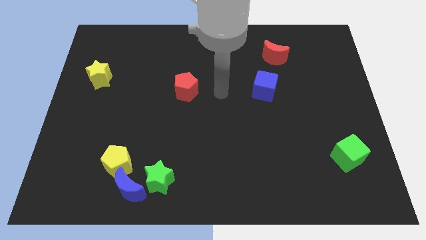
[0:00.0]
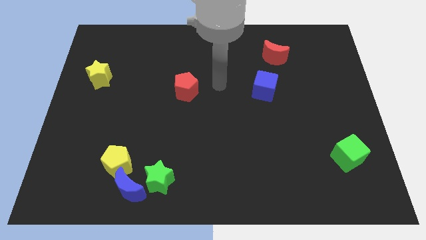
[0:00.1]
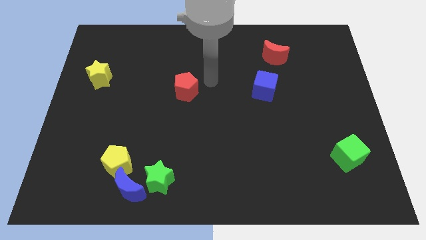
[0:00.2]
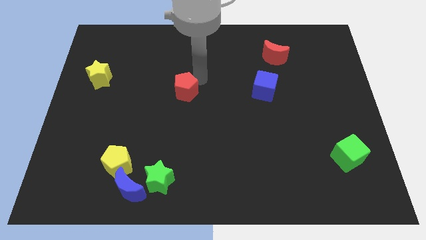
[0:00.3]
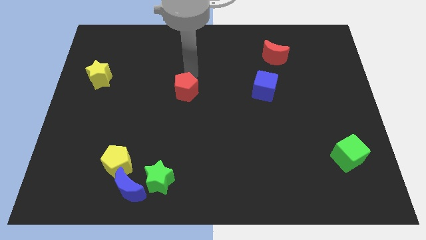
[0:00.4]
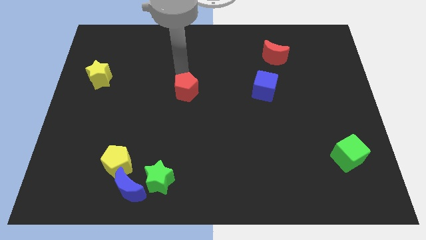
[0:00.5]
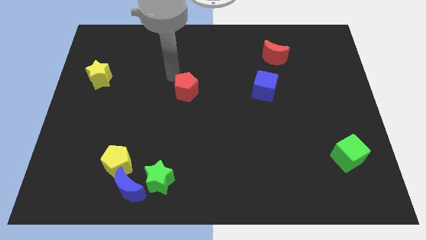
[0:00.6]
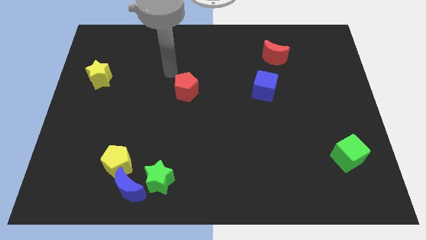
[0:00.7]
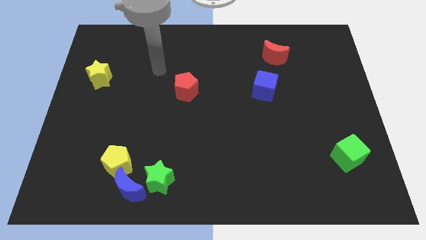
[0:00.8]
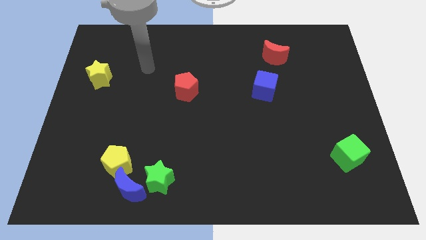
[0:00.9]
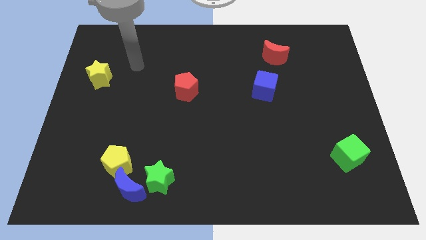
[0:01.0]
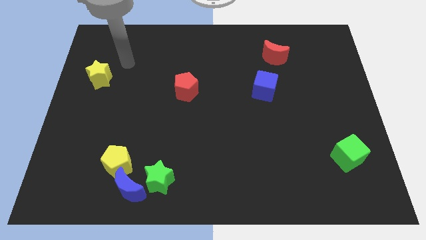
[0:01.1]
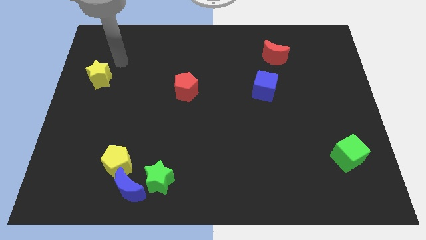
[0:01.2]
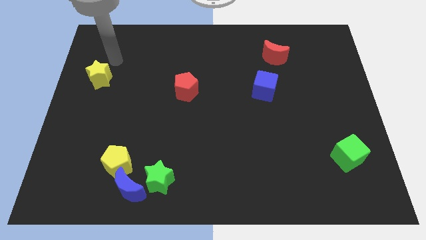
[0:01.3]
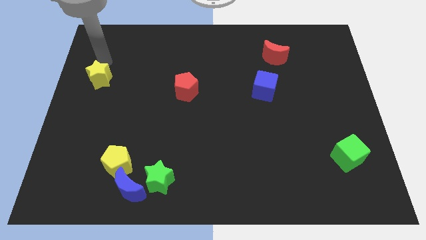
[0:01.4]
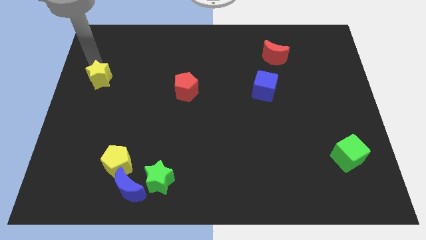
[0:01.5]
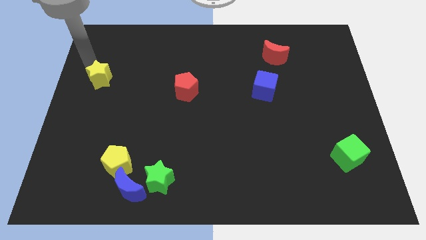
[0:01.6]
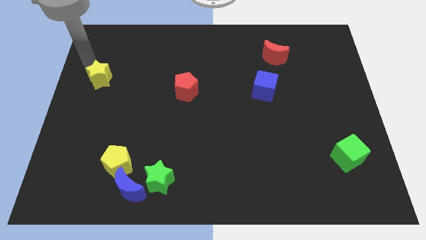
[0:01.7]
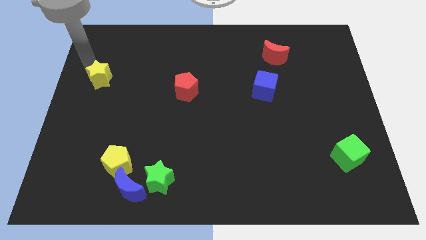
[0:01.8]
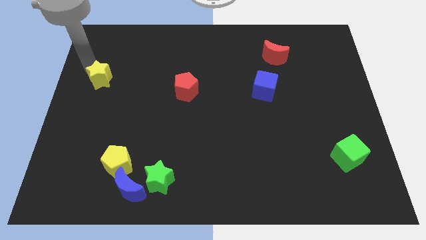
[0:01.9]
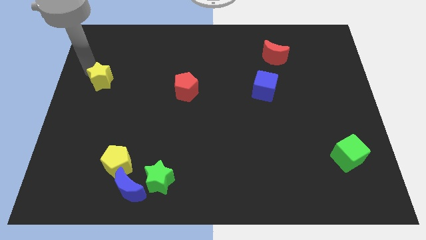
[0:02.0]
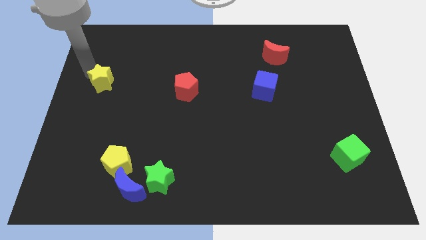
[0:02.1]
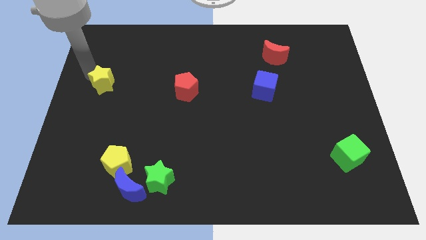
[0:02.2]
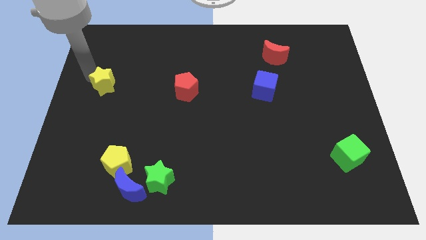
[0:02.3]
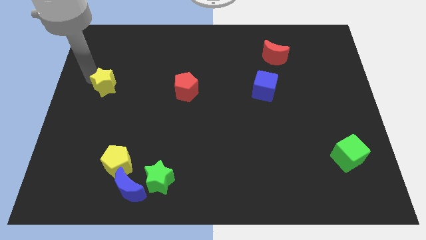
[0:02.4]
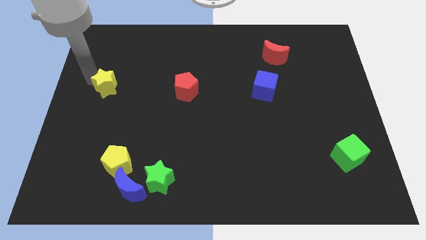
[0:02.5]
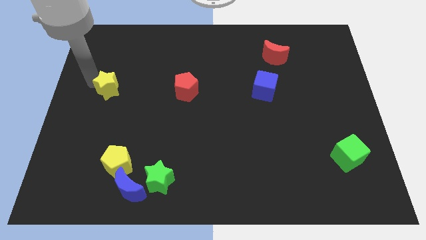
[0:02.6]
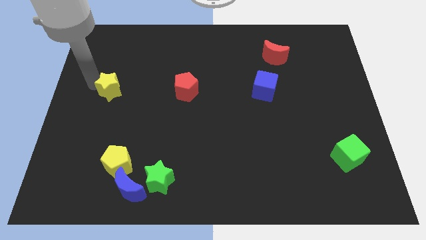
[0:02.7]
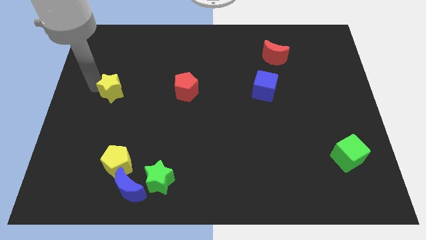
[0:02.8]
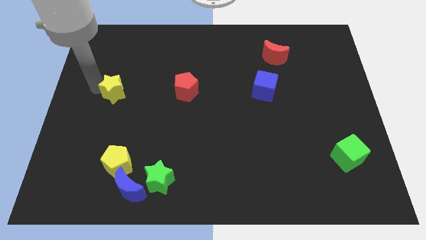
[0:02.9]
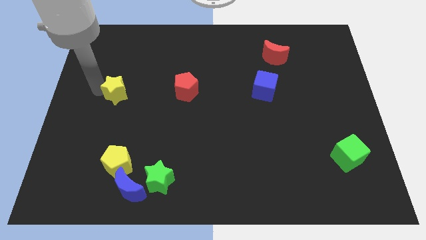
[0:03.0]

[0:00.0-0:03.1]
move the yellow star somewhat down and right diagonally

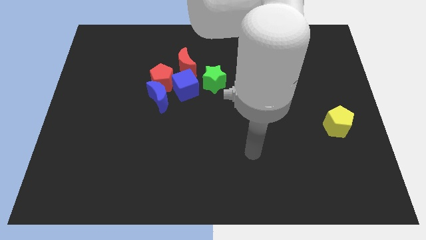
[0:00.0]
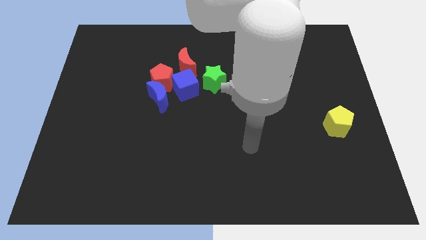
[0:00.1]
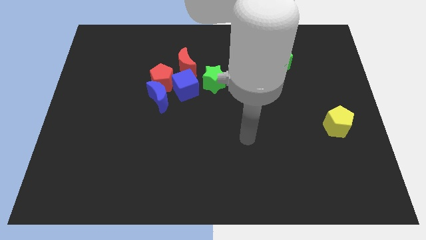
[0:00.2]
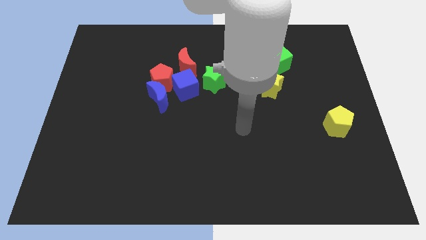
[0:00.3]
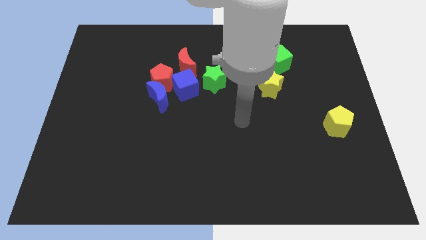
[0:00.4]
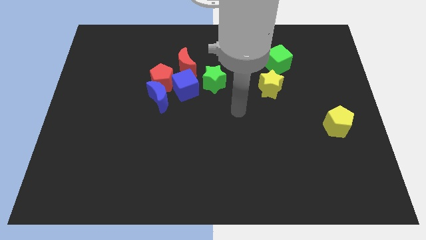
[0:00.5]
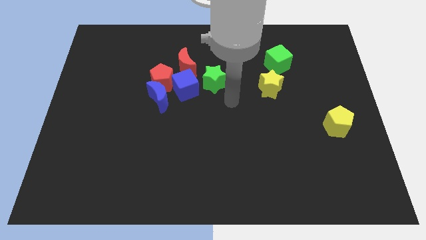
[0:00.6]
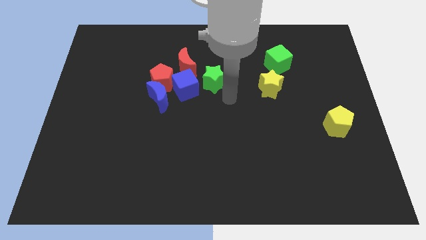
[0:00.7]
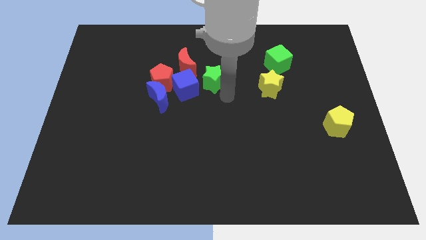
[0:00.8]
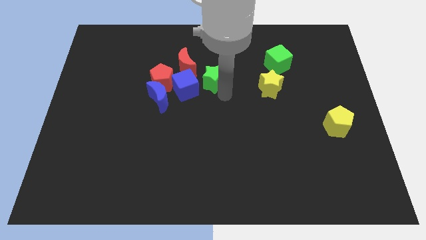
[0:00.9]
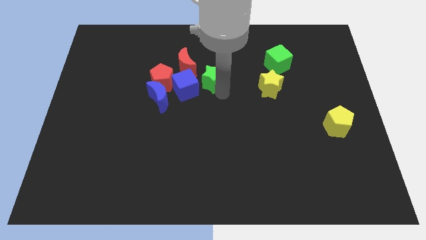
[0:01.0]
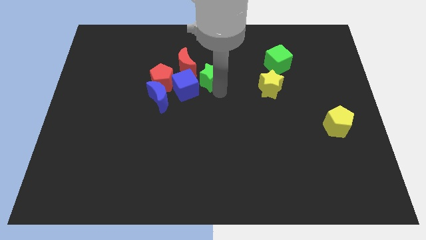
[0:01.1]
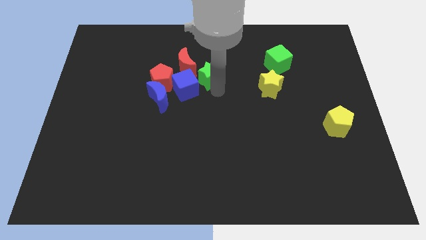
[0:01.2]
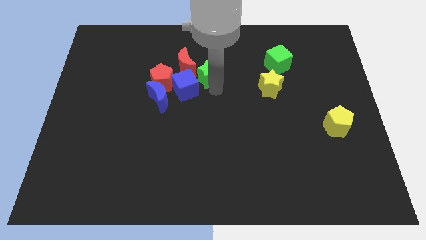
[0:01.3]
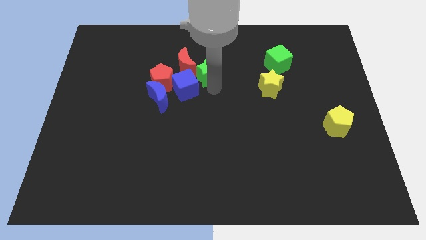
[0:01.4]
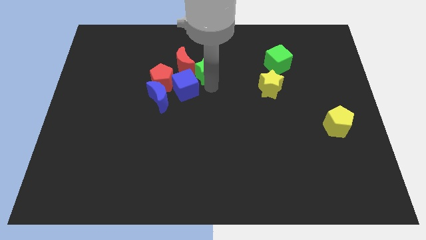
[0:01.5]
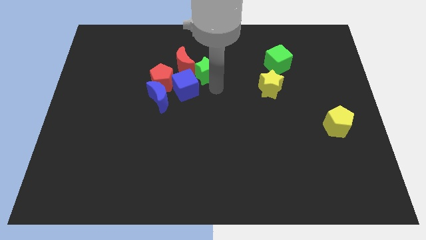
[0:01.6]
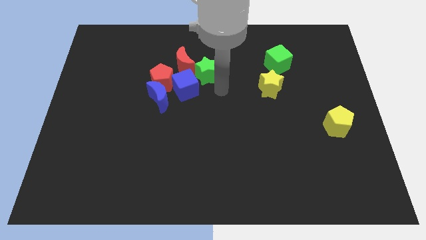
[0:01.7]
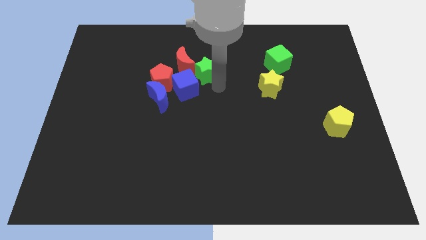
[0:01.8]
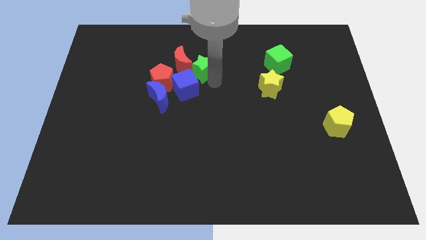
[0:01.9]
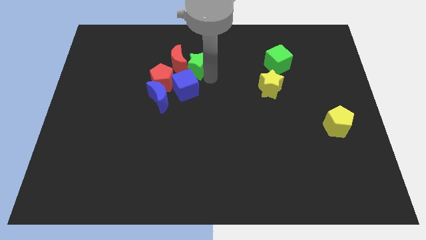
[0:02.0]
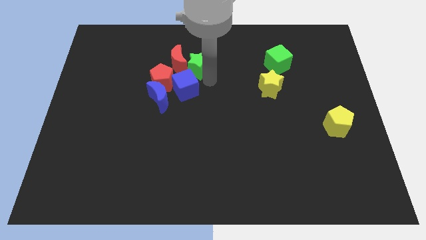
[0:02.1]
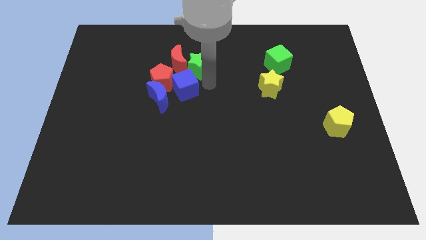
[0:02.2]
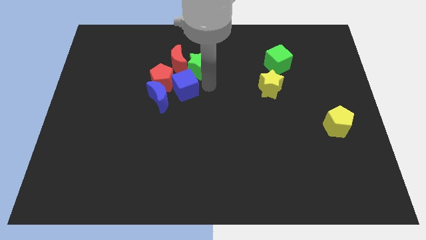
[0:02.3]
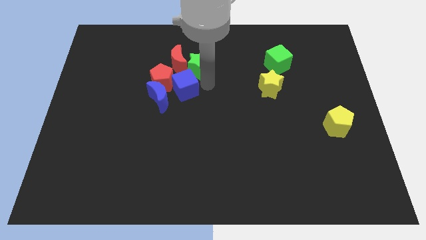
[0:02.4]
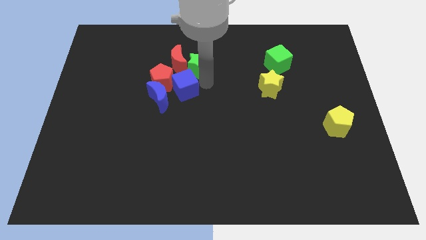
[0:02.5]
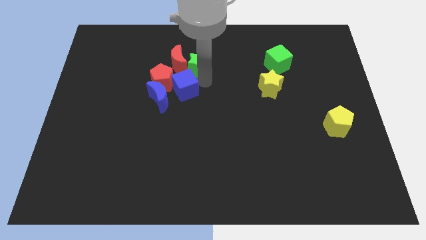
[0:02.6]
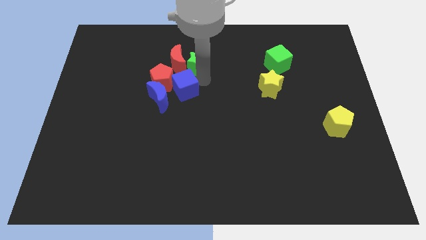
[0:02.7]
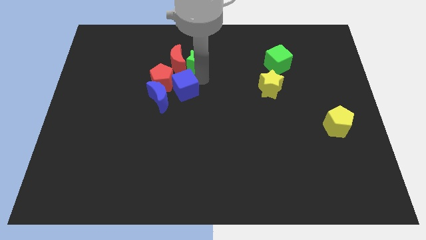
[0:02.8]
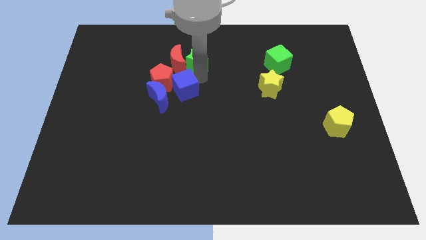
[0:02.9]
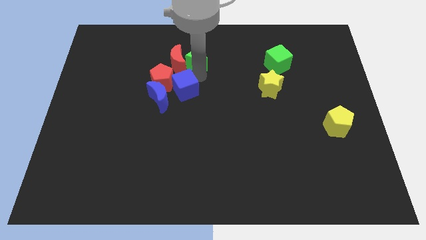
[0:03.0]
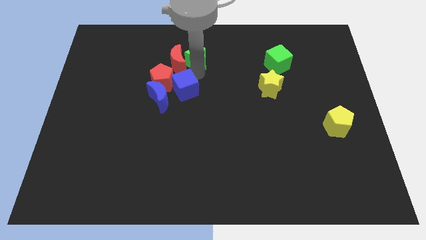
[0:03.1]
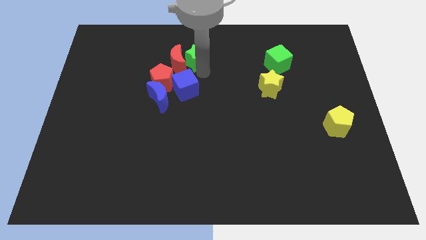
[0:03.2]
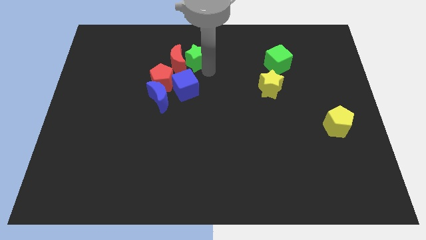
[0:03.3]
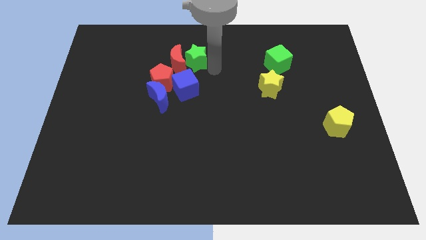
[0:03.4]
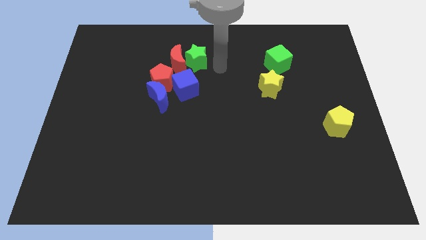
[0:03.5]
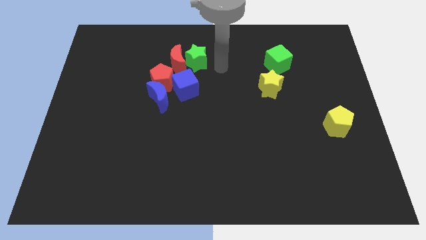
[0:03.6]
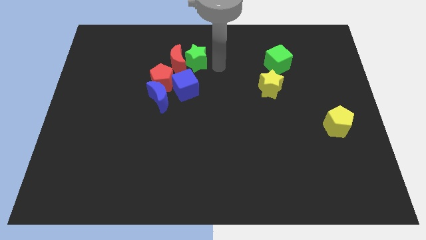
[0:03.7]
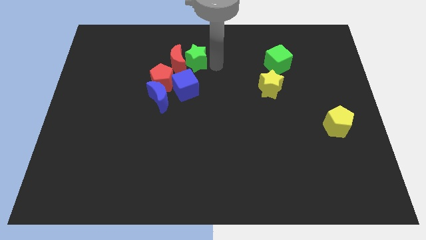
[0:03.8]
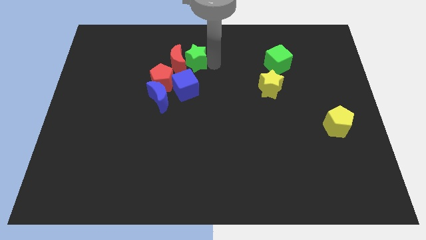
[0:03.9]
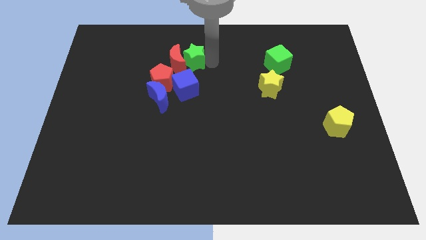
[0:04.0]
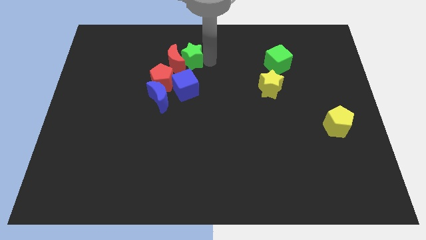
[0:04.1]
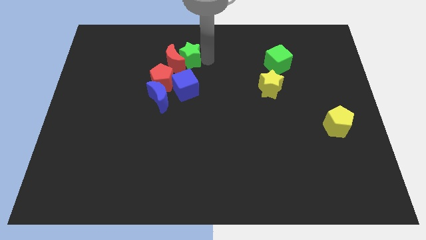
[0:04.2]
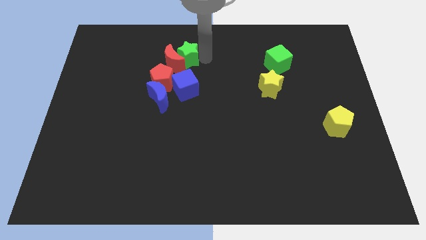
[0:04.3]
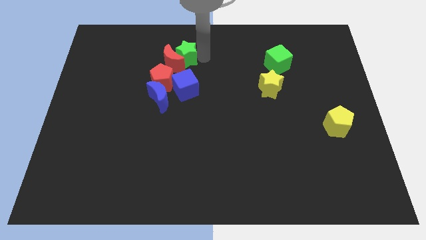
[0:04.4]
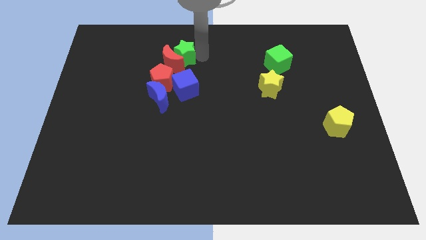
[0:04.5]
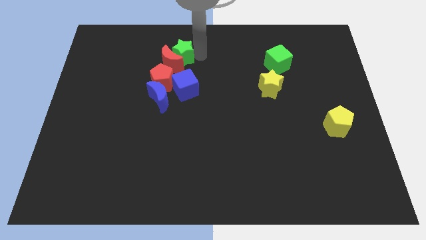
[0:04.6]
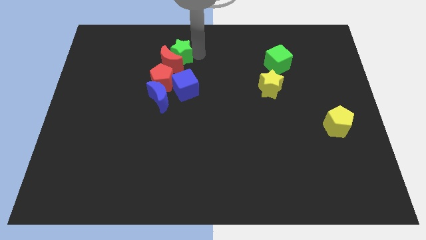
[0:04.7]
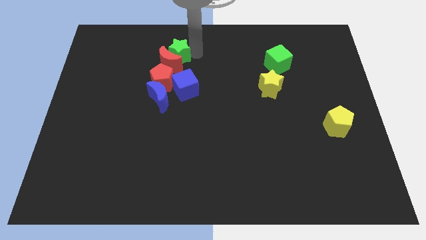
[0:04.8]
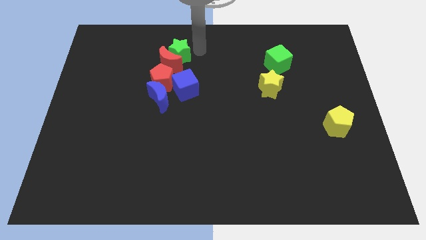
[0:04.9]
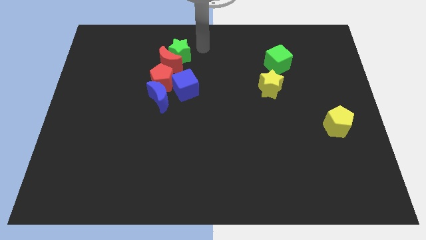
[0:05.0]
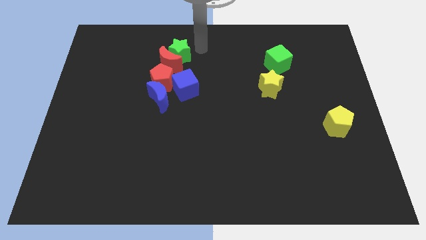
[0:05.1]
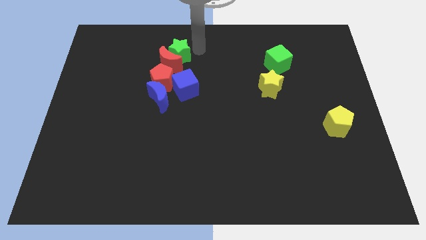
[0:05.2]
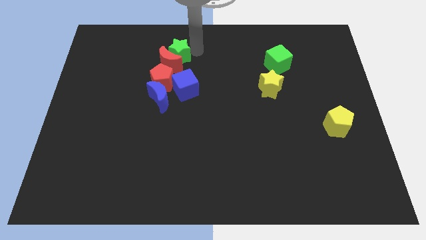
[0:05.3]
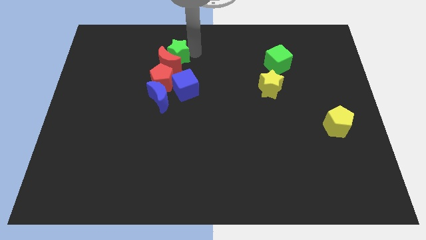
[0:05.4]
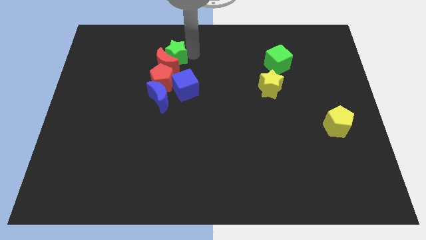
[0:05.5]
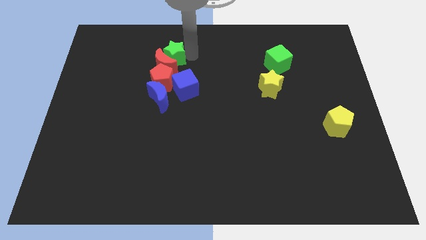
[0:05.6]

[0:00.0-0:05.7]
slightly move the green star to the left
